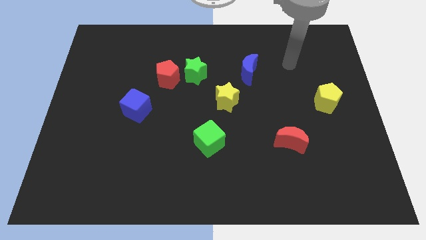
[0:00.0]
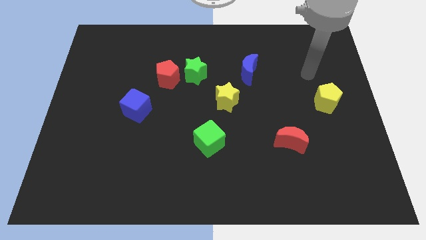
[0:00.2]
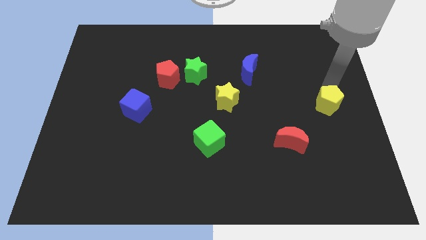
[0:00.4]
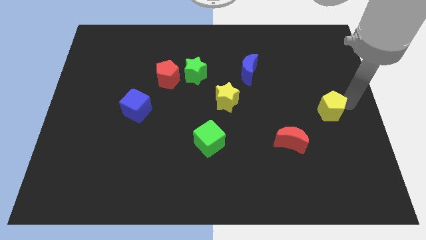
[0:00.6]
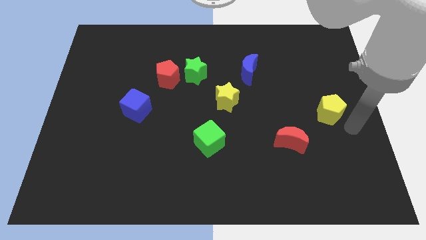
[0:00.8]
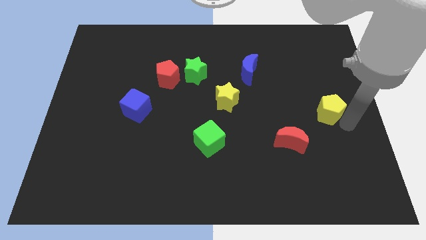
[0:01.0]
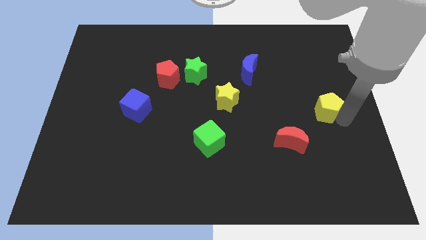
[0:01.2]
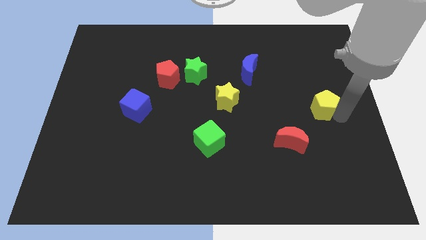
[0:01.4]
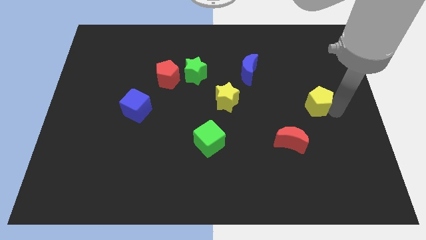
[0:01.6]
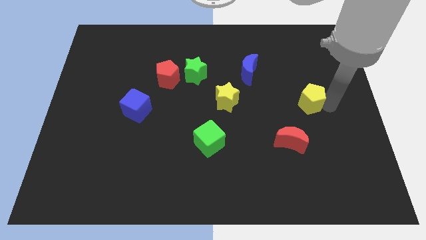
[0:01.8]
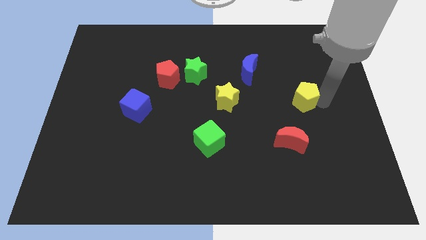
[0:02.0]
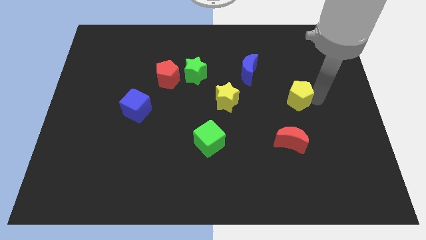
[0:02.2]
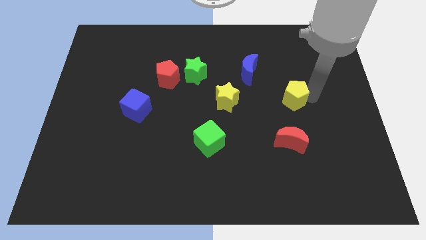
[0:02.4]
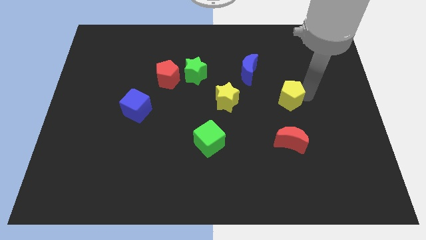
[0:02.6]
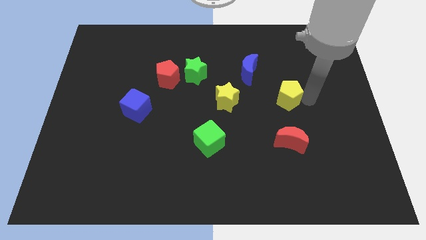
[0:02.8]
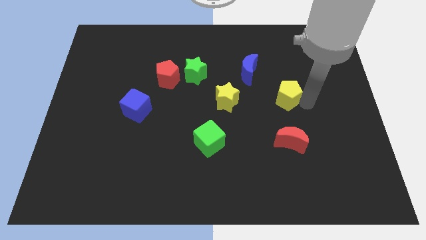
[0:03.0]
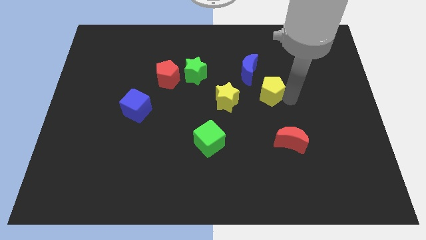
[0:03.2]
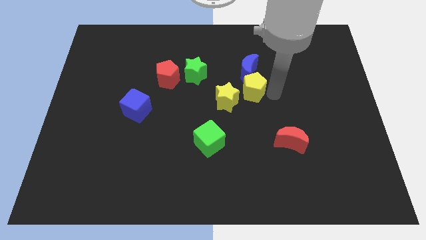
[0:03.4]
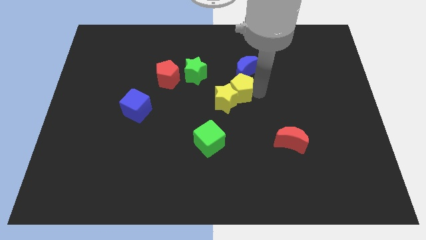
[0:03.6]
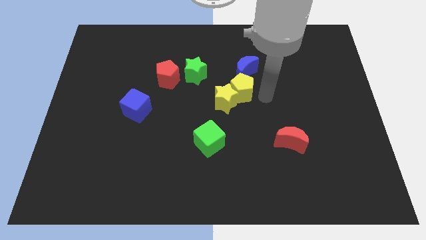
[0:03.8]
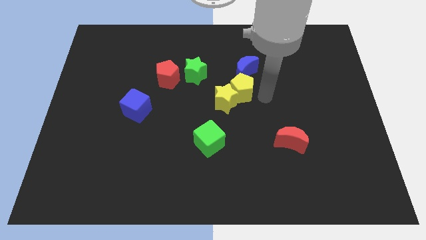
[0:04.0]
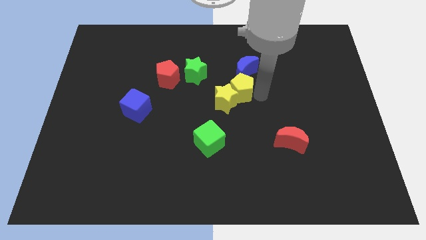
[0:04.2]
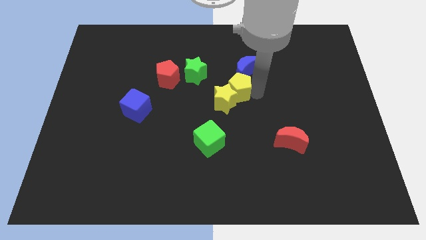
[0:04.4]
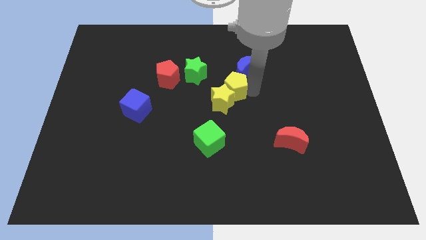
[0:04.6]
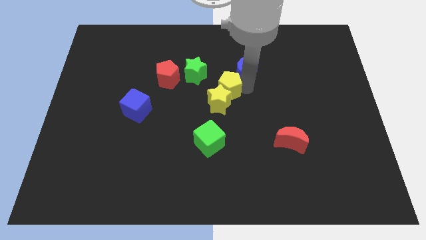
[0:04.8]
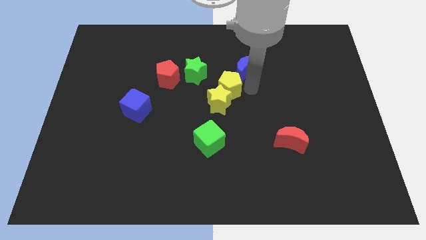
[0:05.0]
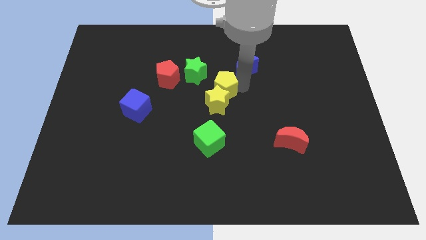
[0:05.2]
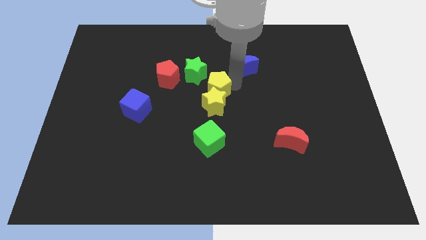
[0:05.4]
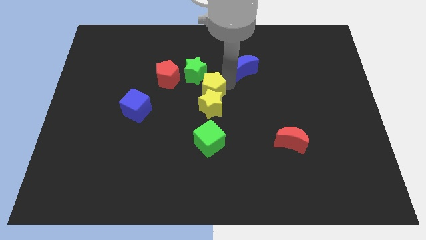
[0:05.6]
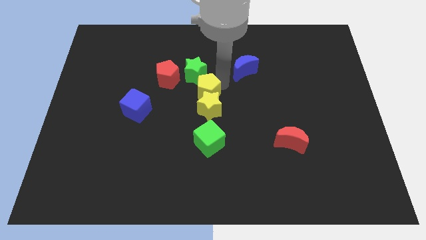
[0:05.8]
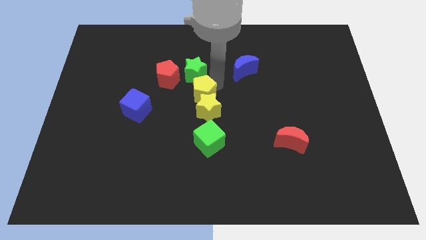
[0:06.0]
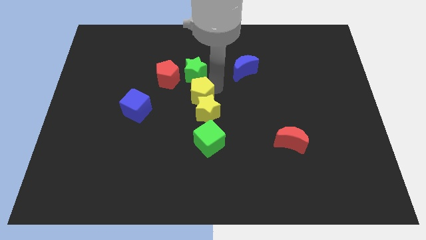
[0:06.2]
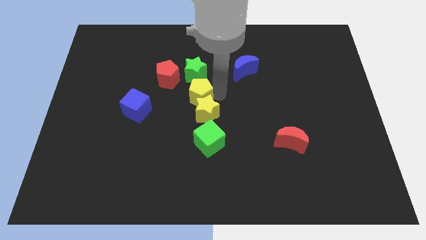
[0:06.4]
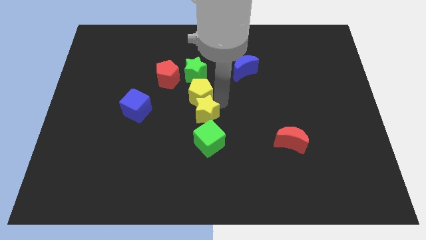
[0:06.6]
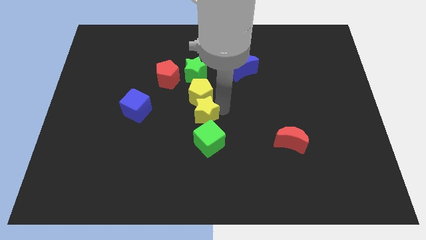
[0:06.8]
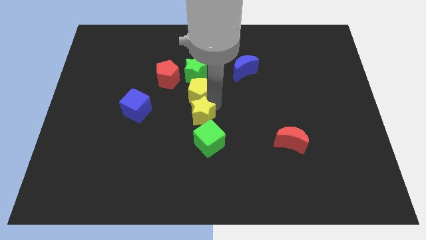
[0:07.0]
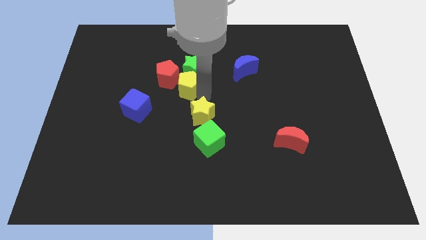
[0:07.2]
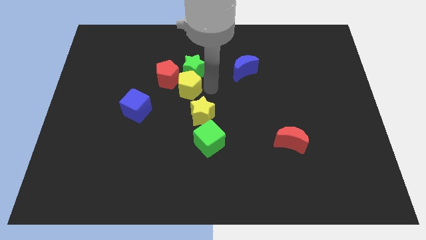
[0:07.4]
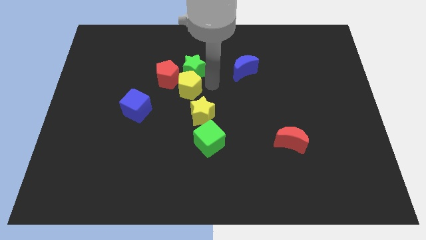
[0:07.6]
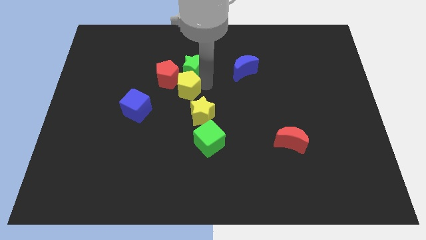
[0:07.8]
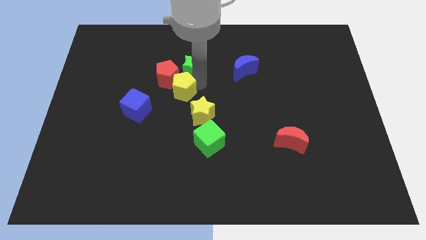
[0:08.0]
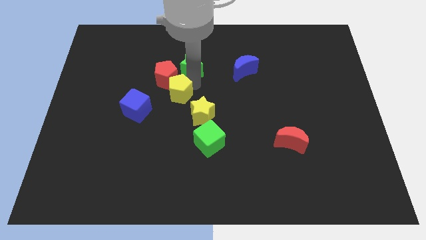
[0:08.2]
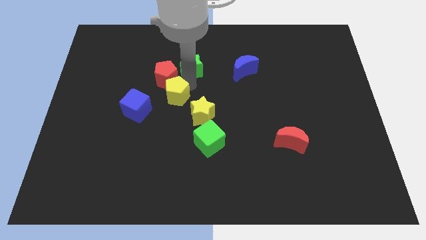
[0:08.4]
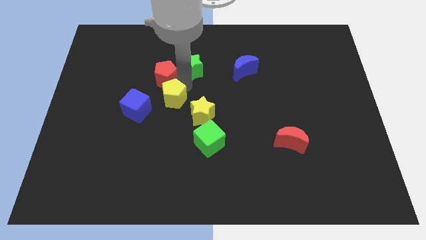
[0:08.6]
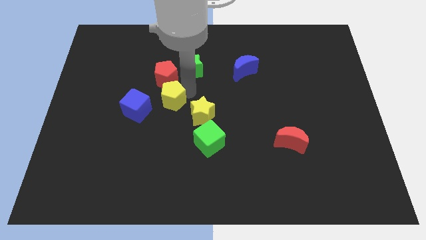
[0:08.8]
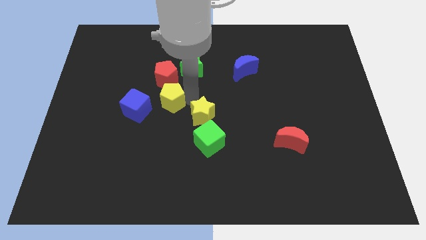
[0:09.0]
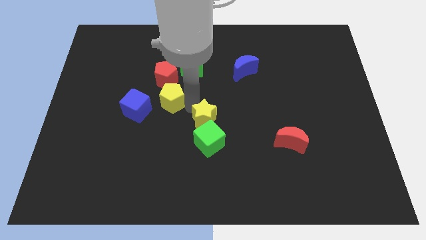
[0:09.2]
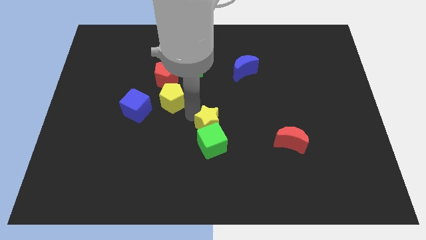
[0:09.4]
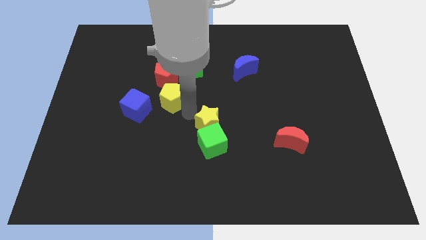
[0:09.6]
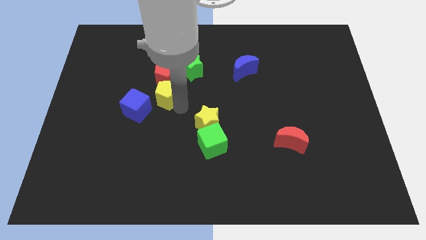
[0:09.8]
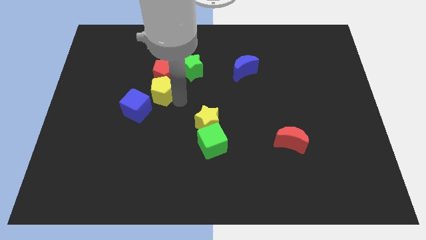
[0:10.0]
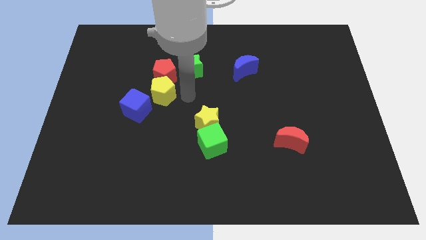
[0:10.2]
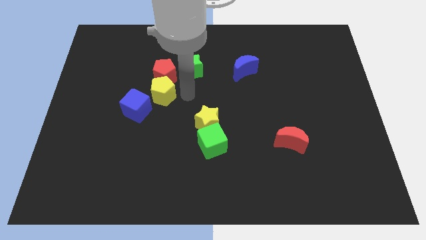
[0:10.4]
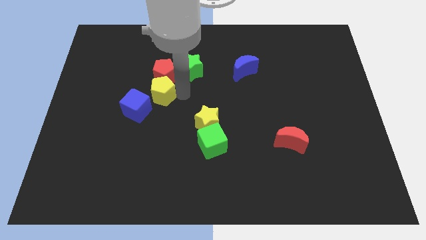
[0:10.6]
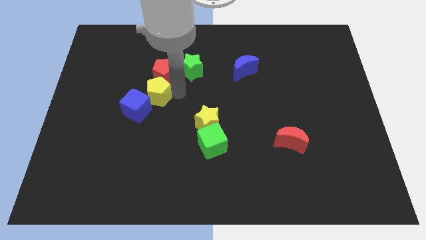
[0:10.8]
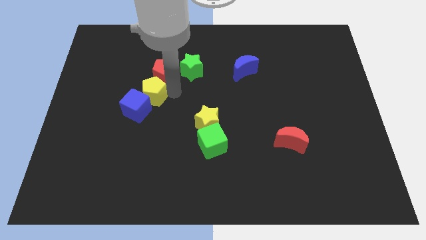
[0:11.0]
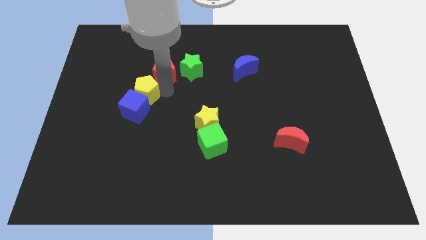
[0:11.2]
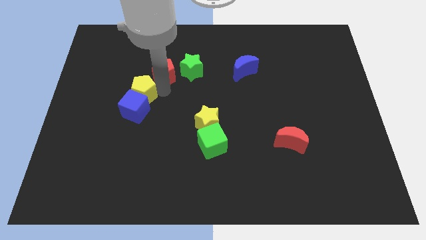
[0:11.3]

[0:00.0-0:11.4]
put the yellow pentagon to the top left side of the blue cube

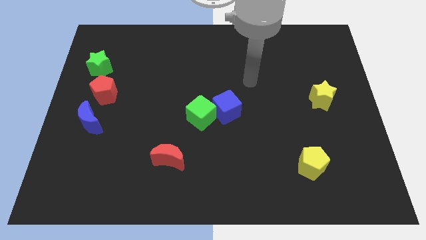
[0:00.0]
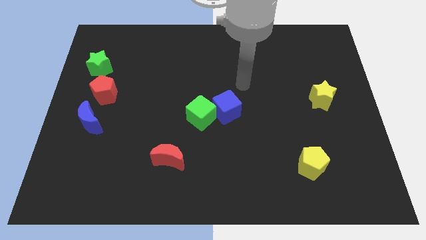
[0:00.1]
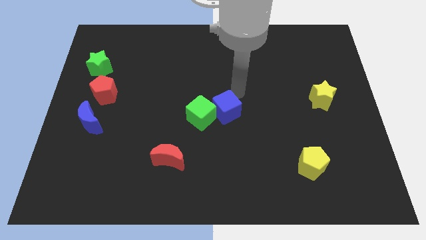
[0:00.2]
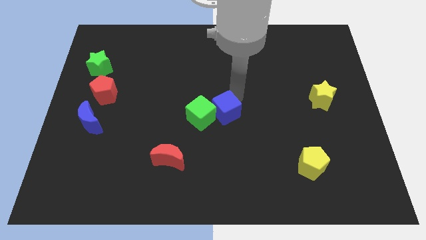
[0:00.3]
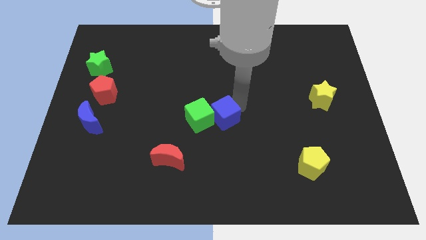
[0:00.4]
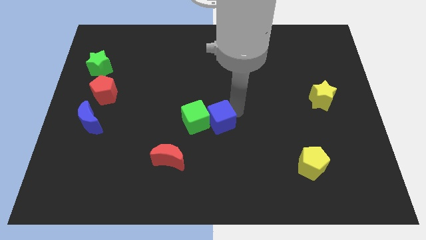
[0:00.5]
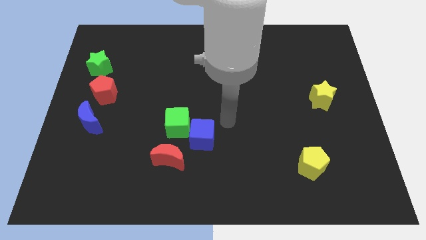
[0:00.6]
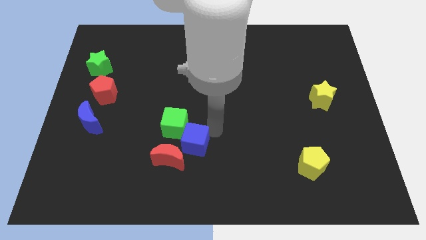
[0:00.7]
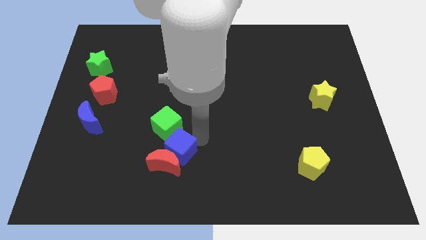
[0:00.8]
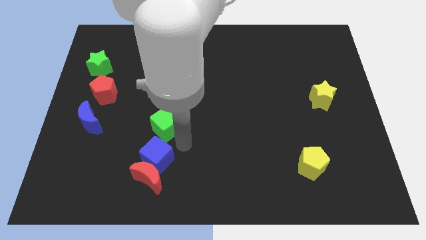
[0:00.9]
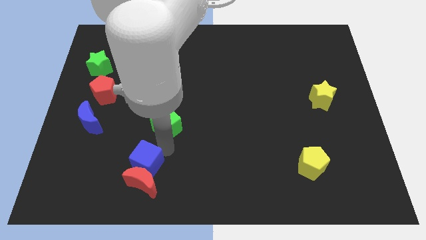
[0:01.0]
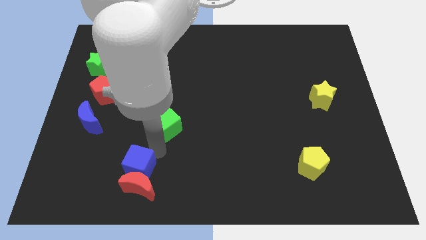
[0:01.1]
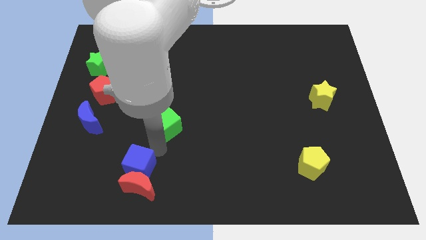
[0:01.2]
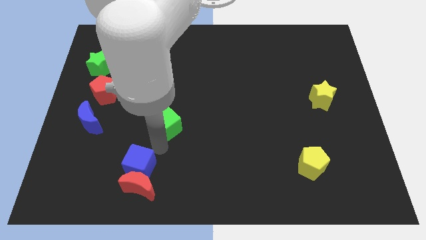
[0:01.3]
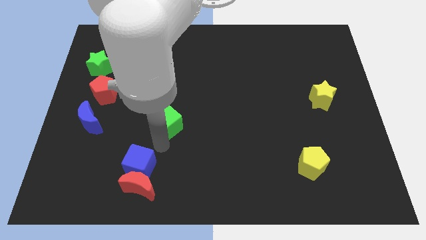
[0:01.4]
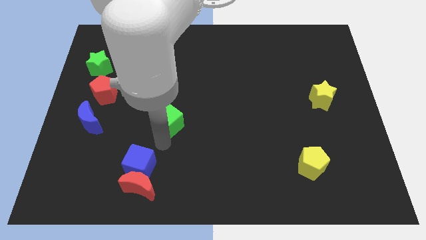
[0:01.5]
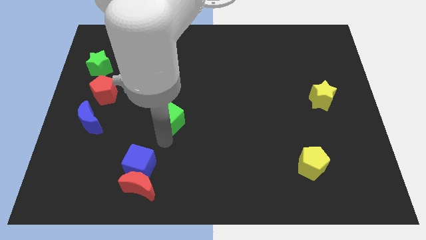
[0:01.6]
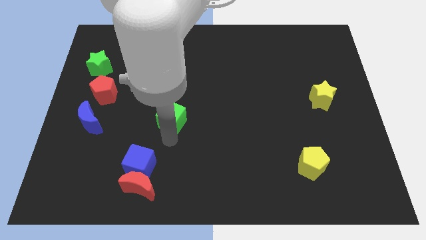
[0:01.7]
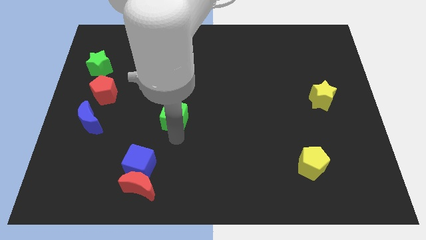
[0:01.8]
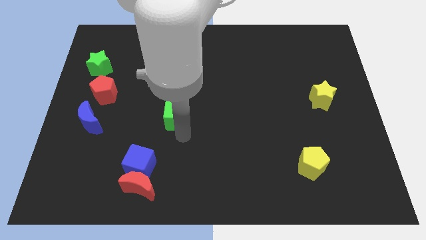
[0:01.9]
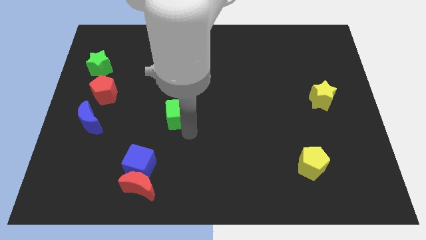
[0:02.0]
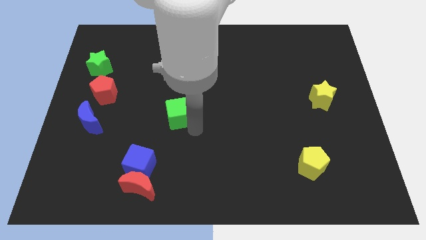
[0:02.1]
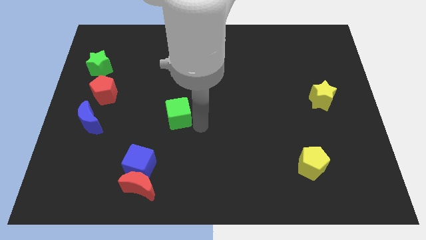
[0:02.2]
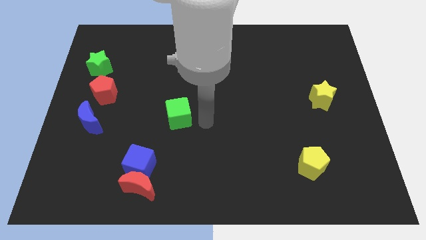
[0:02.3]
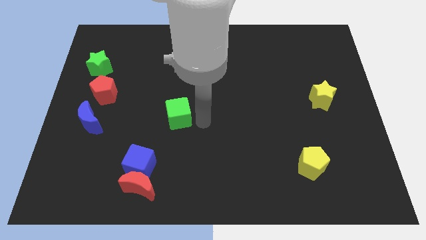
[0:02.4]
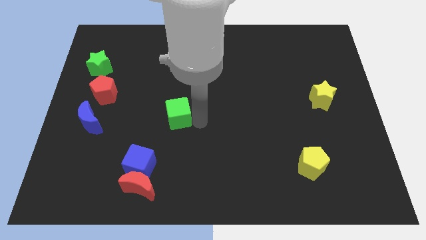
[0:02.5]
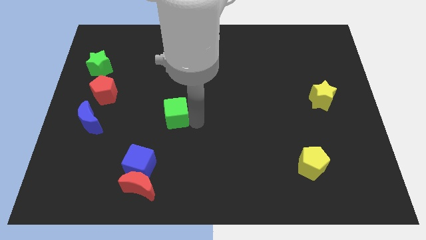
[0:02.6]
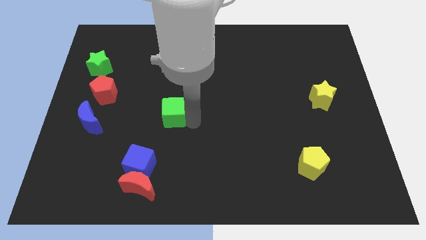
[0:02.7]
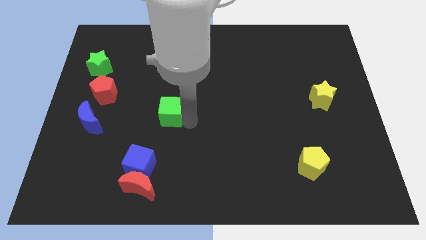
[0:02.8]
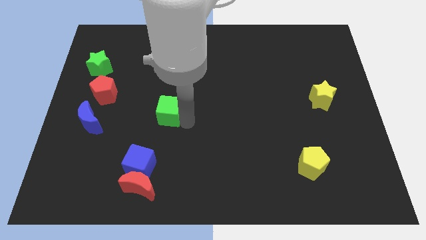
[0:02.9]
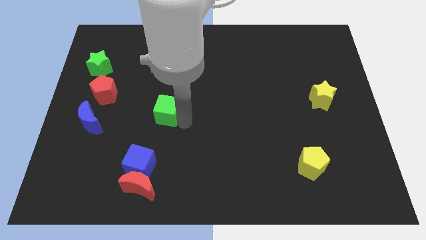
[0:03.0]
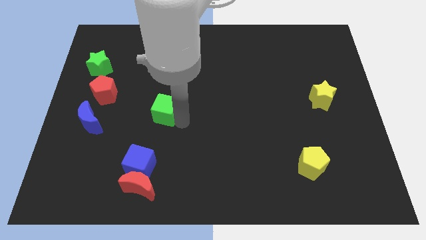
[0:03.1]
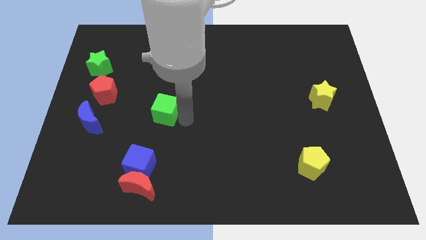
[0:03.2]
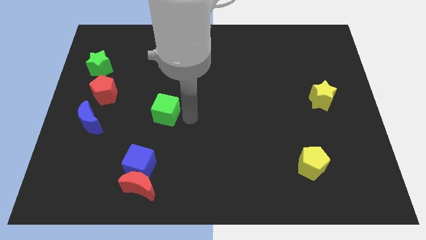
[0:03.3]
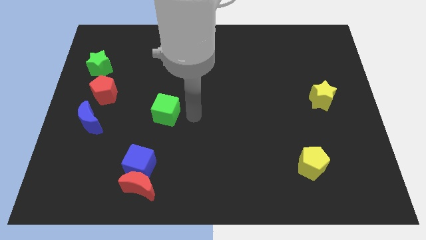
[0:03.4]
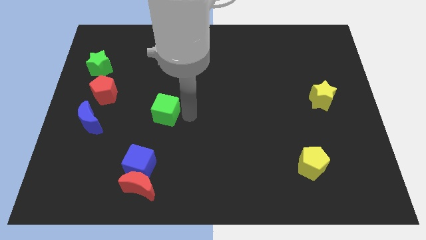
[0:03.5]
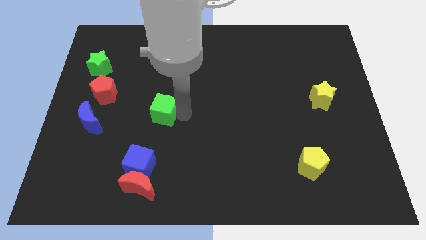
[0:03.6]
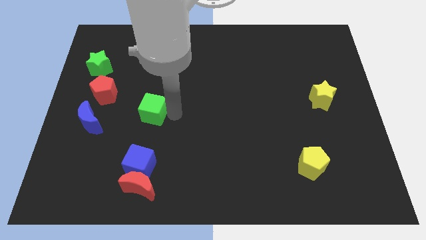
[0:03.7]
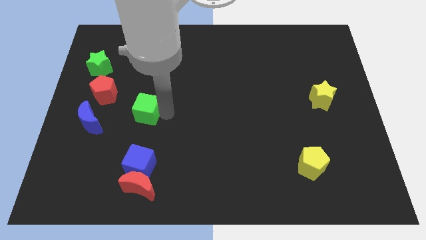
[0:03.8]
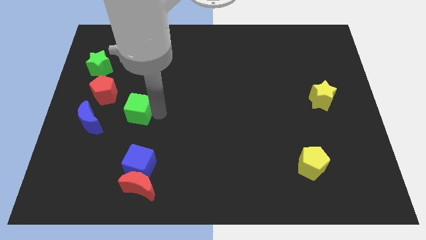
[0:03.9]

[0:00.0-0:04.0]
push the green cube to the bottom right side of the red pentagon
